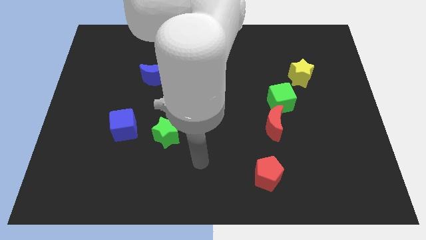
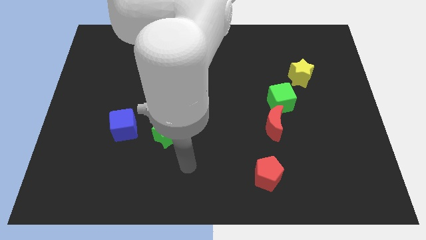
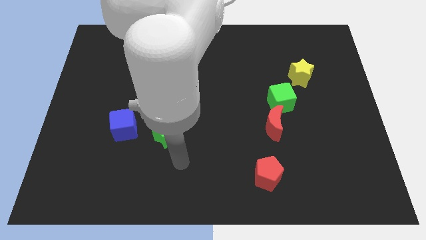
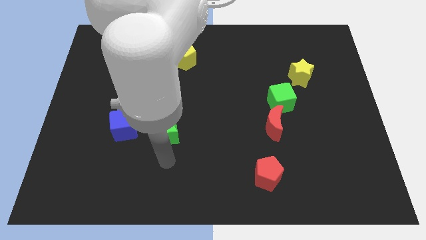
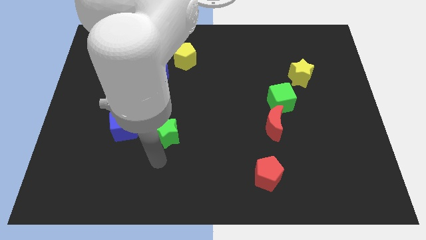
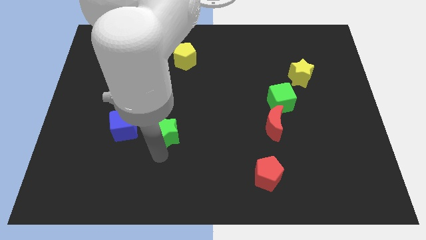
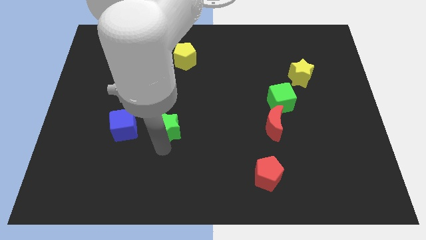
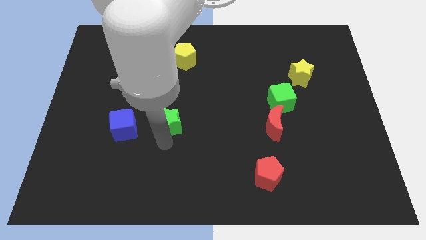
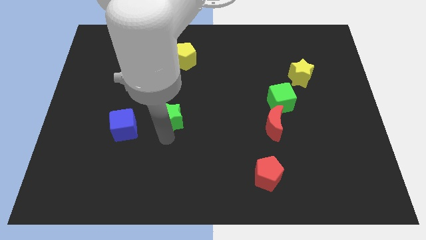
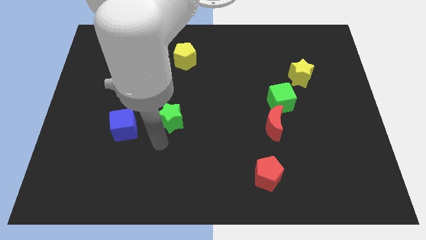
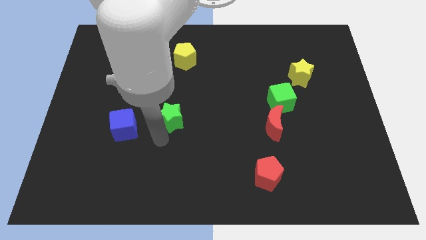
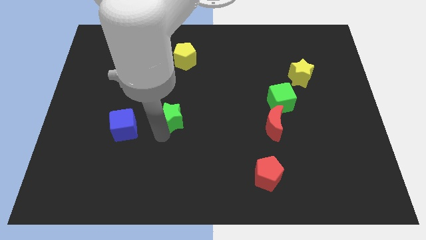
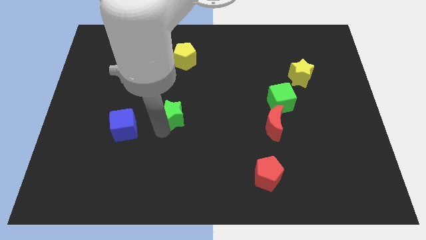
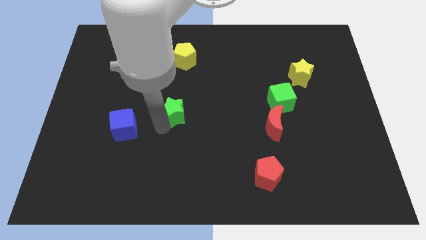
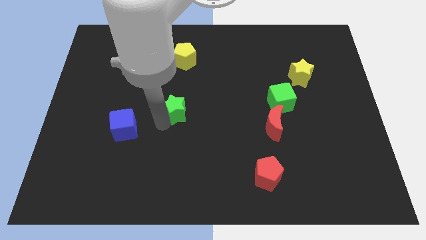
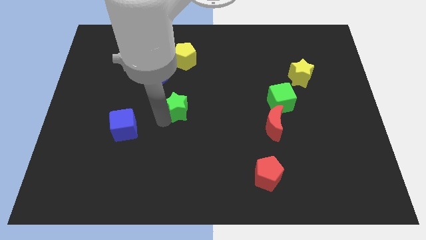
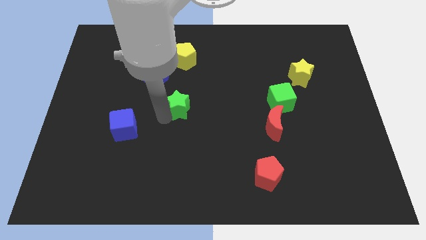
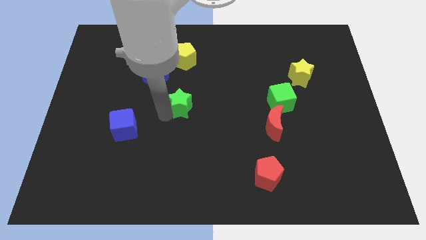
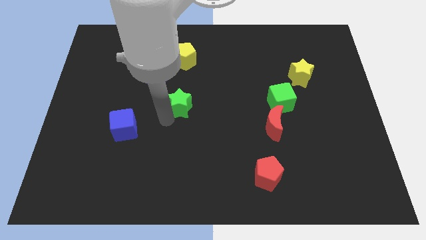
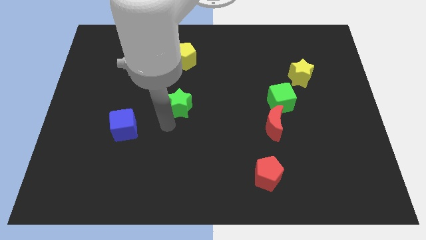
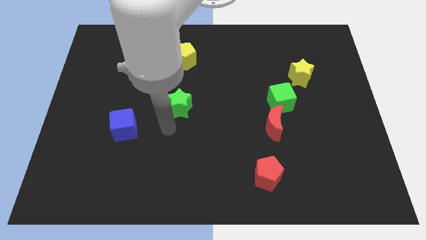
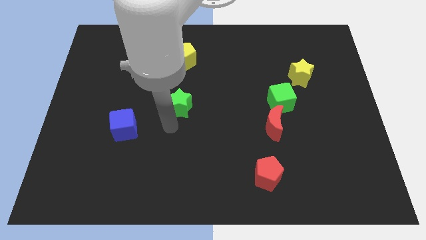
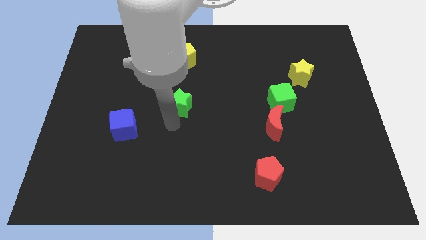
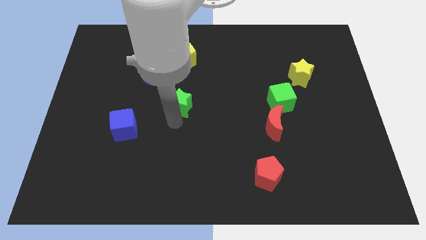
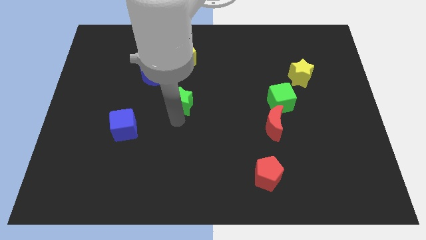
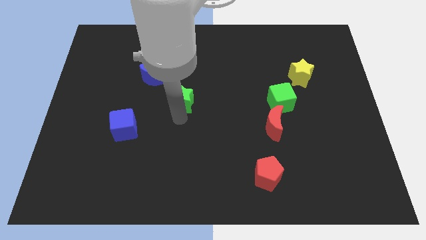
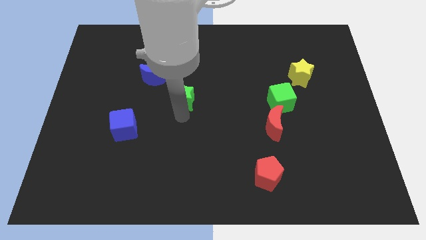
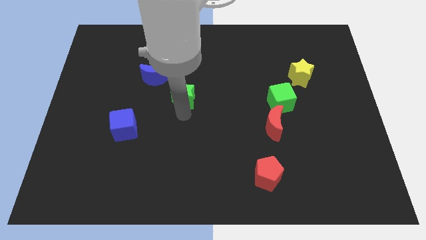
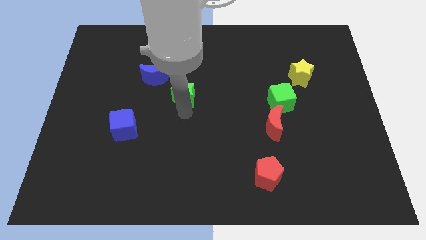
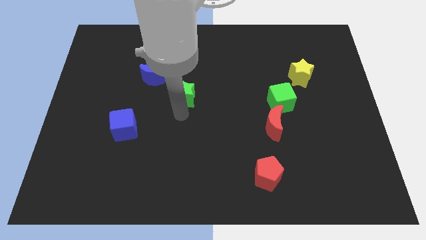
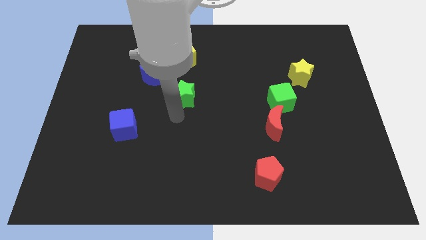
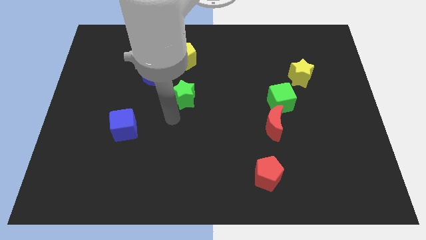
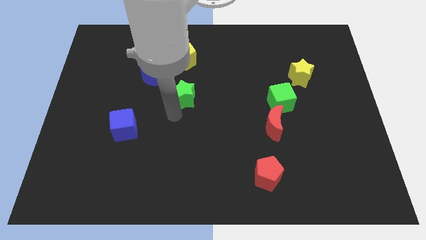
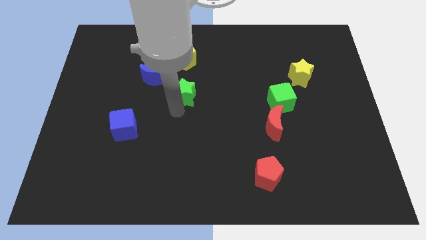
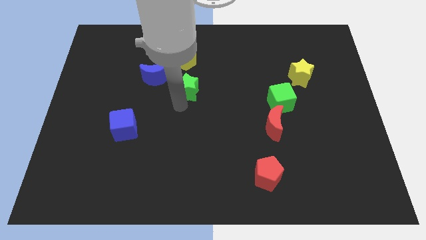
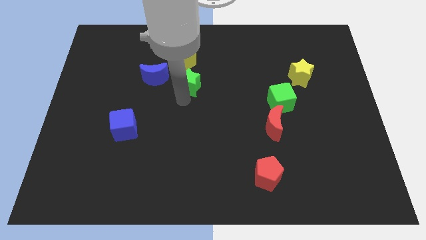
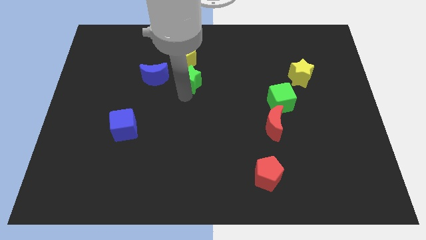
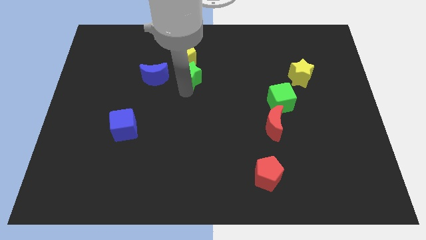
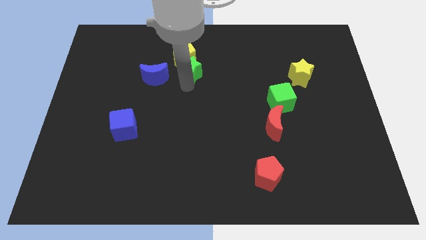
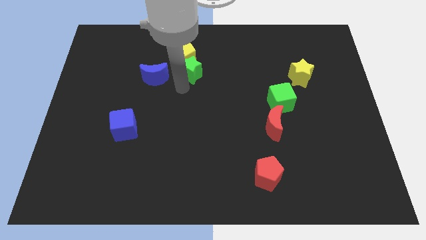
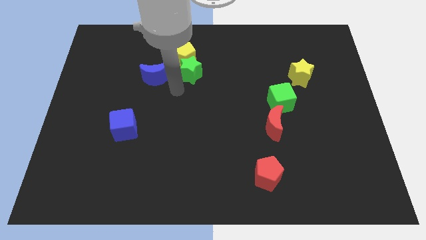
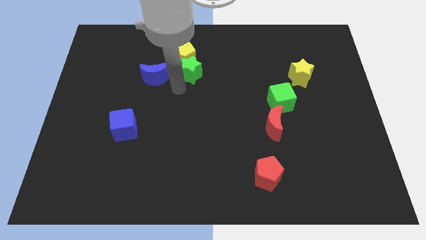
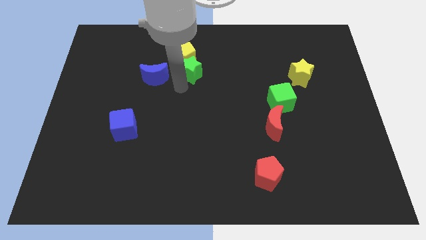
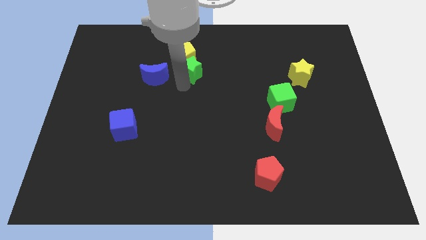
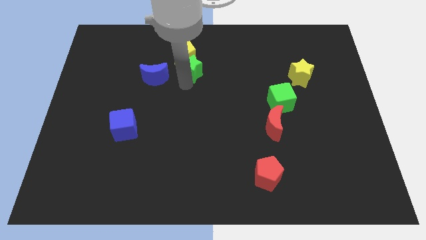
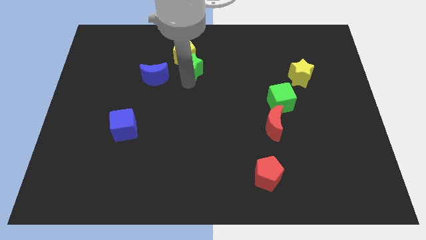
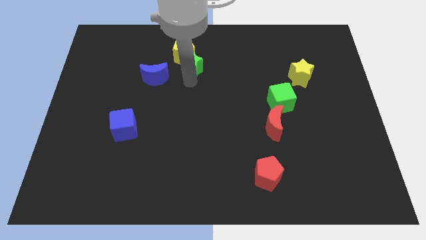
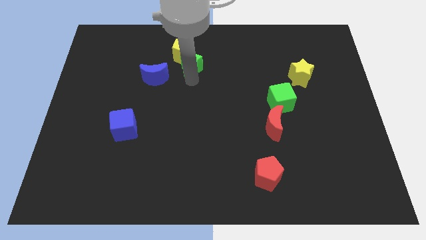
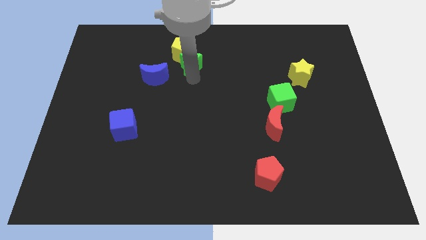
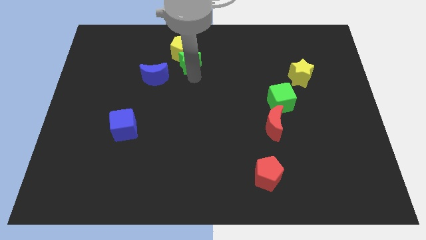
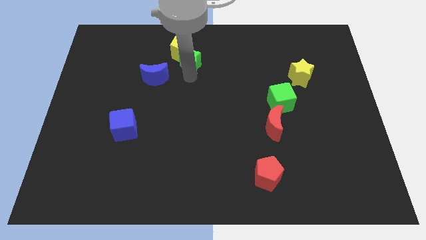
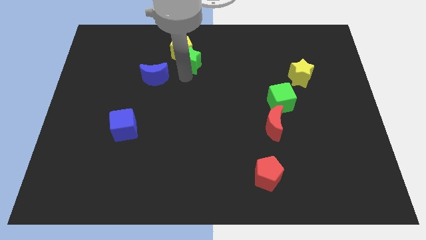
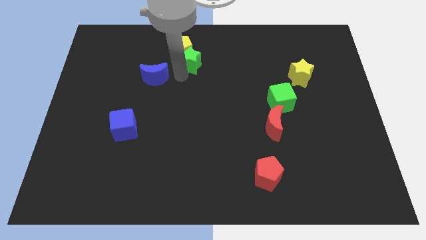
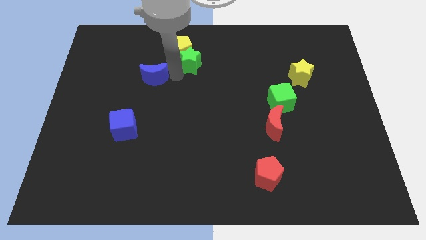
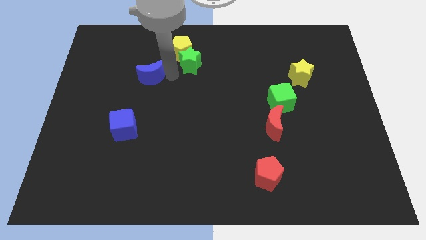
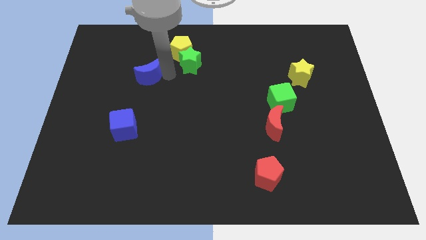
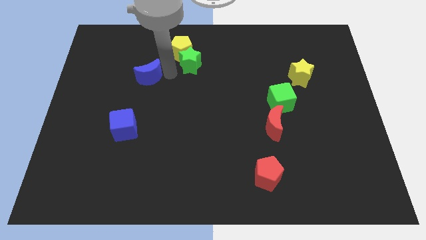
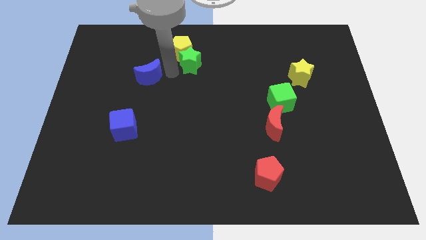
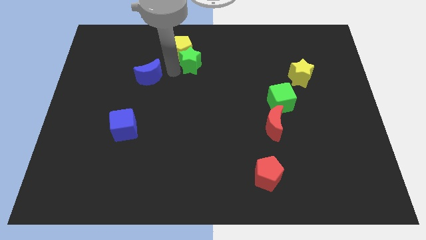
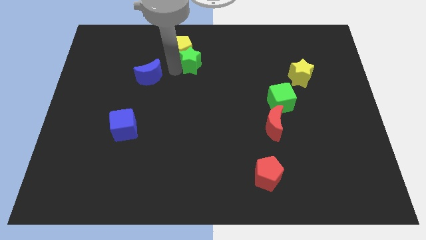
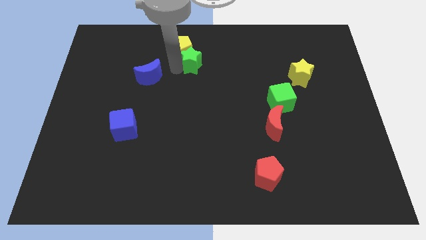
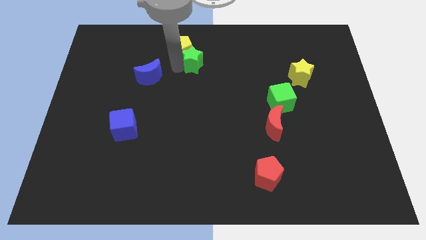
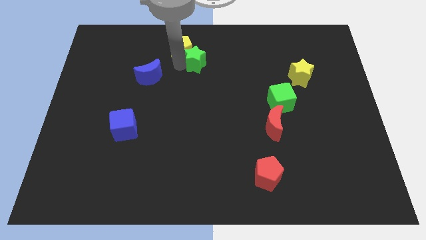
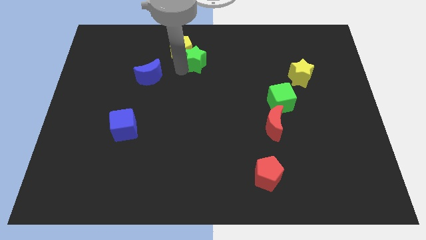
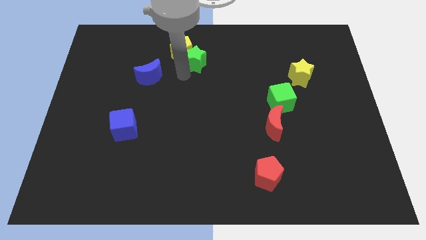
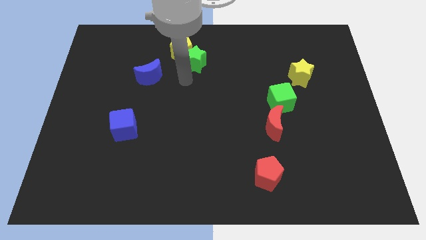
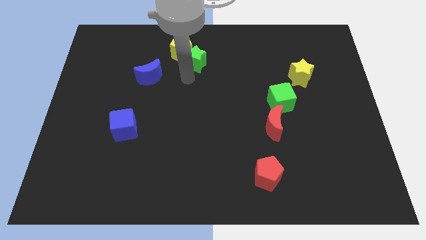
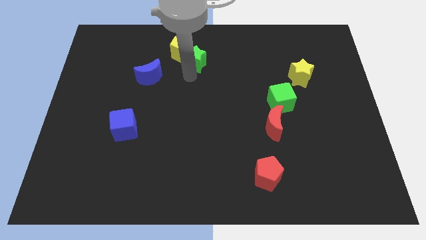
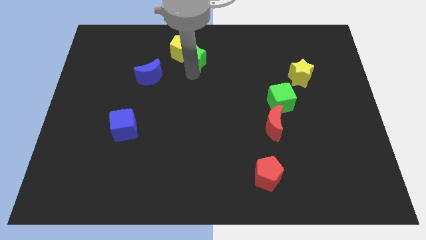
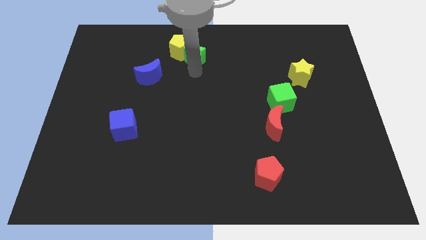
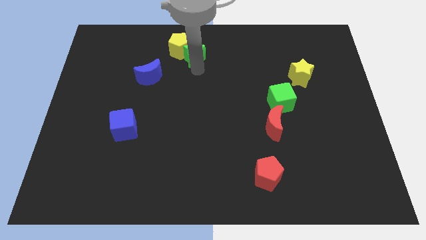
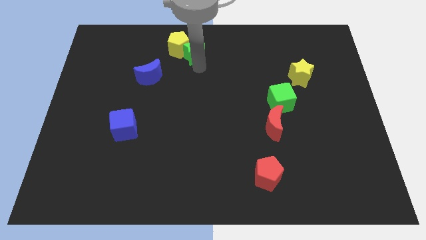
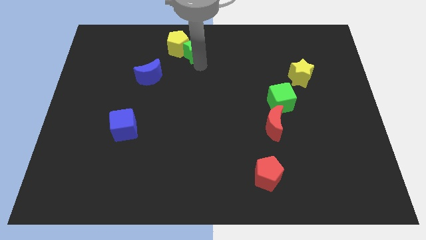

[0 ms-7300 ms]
slide the green star to the top
